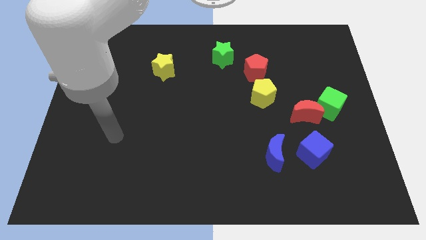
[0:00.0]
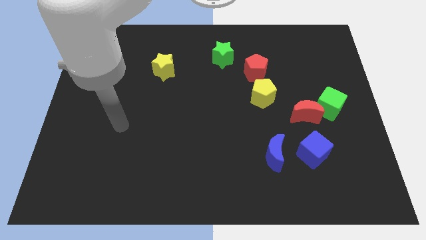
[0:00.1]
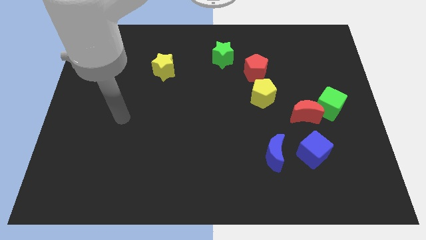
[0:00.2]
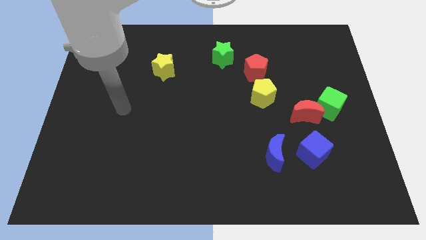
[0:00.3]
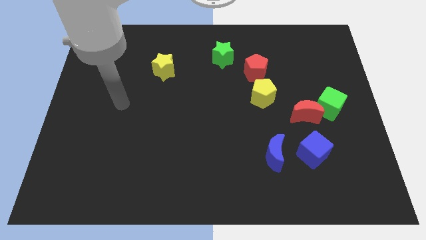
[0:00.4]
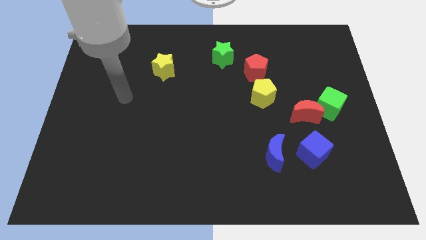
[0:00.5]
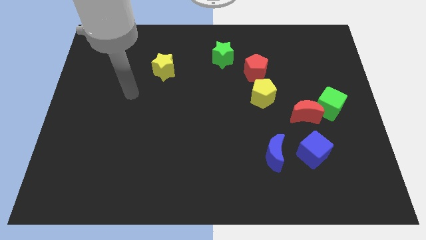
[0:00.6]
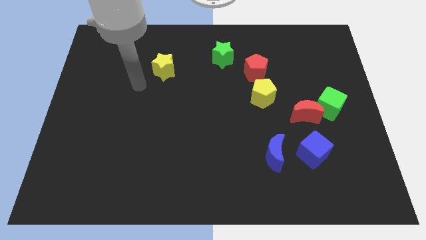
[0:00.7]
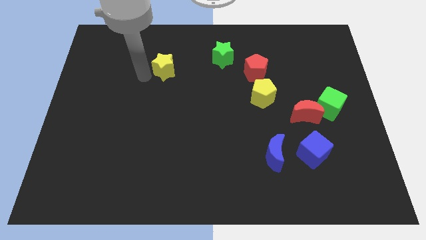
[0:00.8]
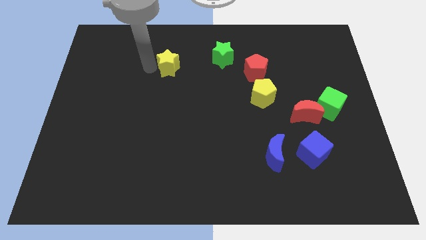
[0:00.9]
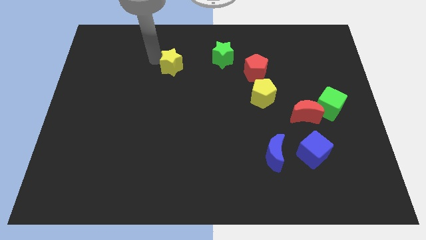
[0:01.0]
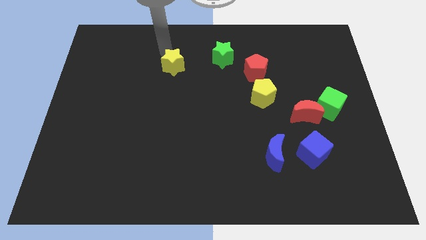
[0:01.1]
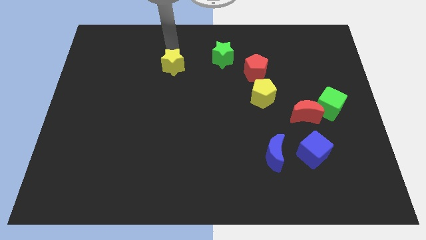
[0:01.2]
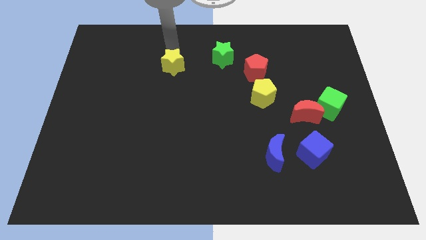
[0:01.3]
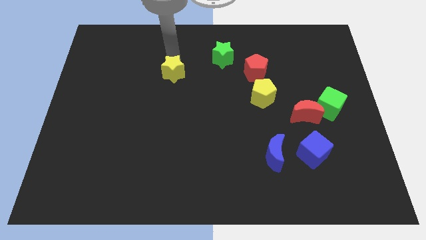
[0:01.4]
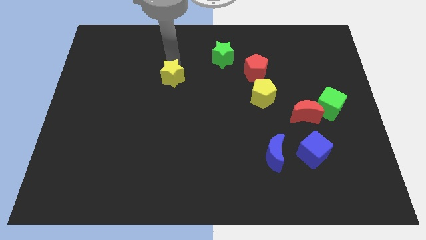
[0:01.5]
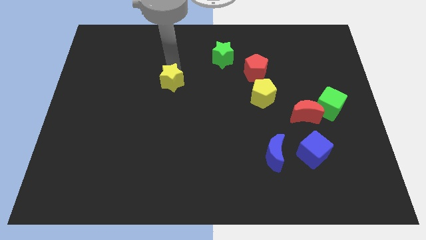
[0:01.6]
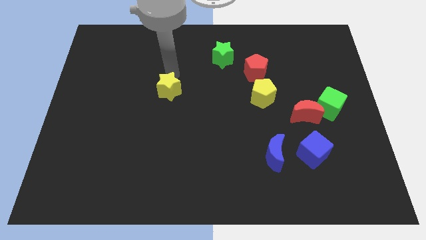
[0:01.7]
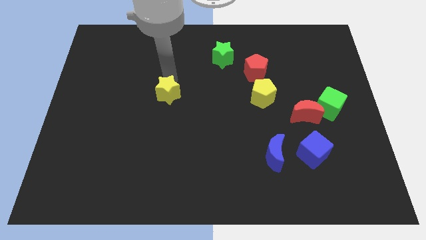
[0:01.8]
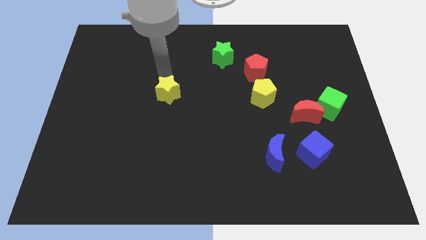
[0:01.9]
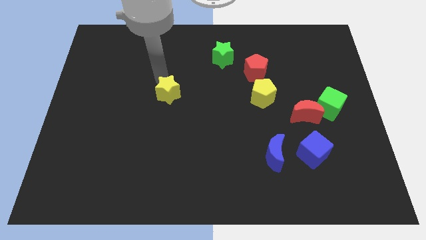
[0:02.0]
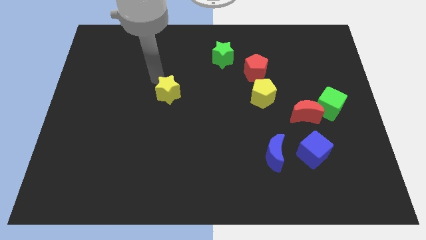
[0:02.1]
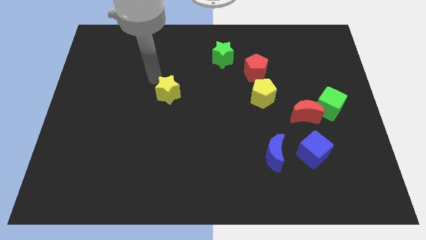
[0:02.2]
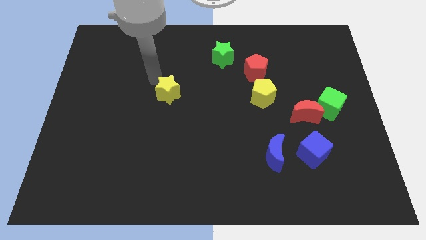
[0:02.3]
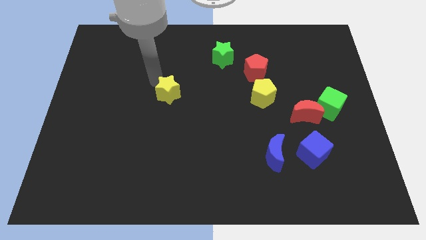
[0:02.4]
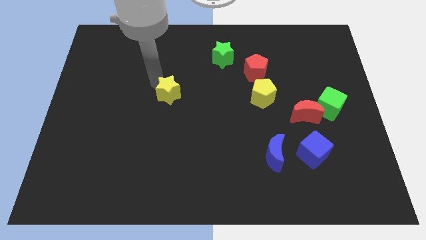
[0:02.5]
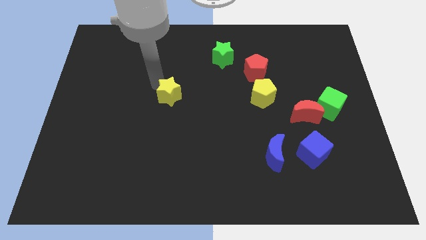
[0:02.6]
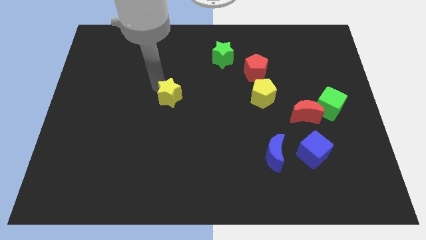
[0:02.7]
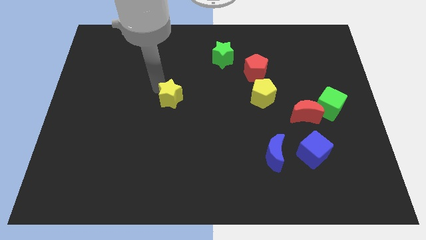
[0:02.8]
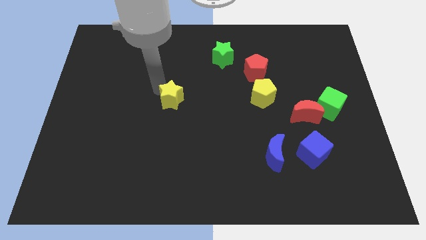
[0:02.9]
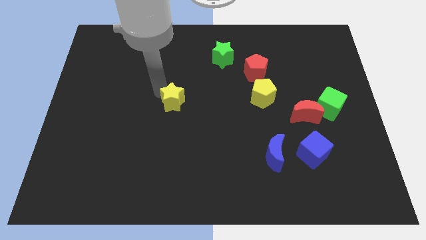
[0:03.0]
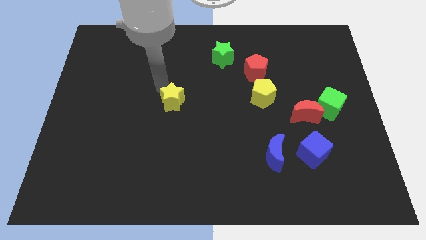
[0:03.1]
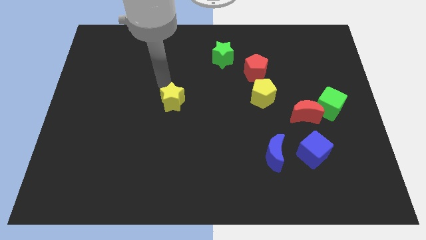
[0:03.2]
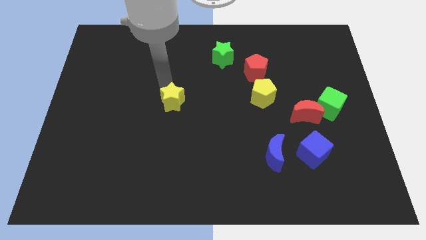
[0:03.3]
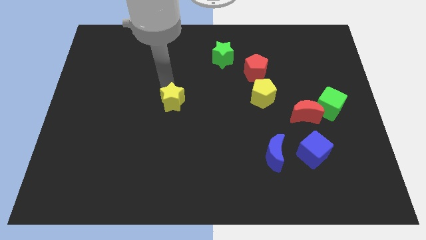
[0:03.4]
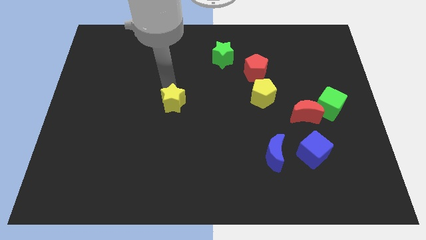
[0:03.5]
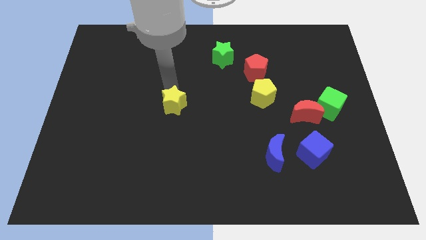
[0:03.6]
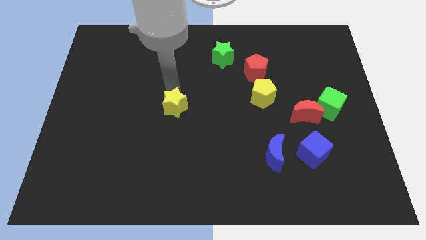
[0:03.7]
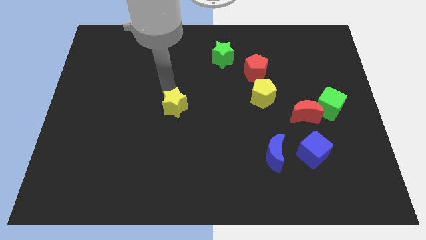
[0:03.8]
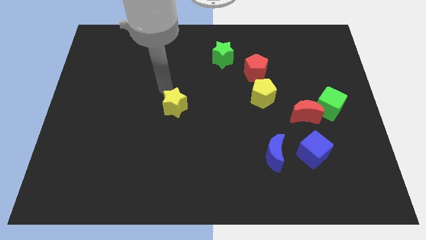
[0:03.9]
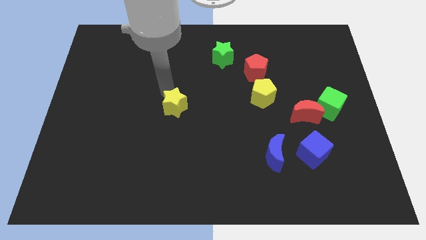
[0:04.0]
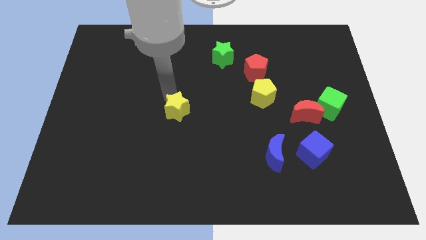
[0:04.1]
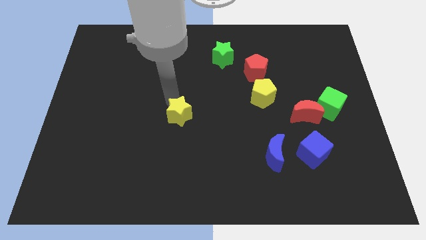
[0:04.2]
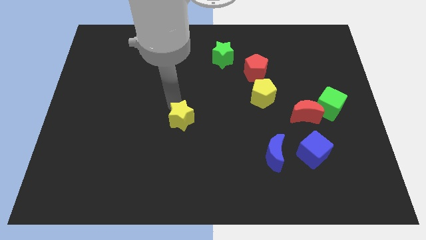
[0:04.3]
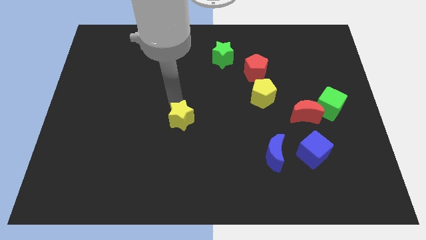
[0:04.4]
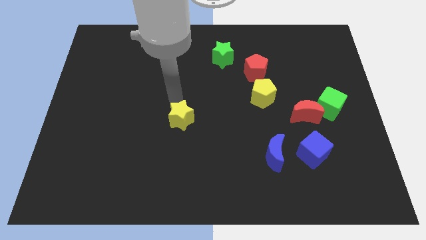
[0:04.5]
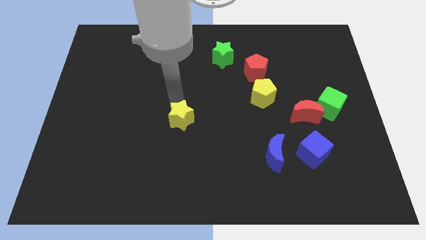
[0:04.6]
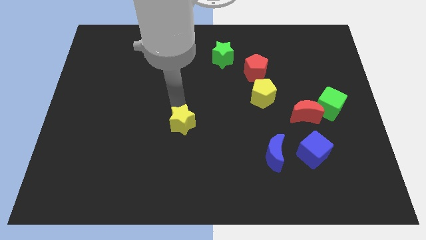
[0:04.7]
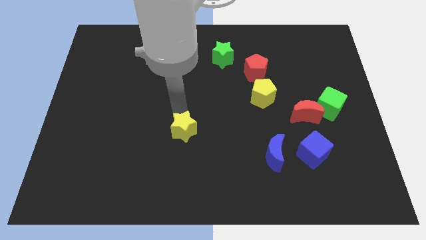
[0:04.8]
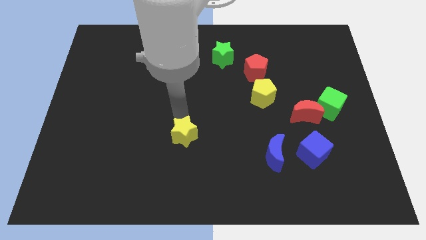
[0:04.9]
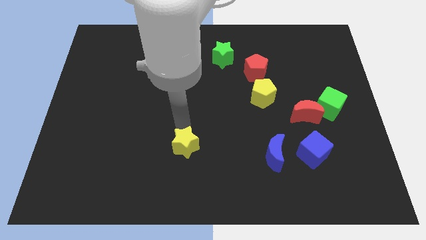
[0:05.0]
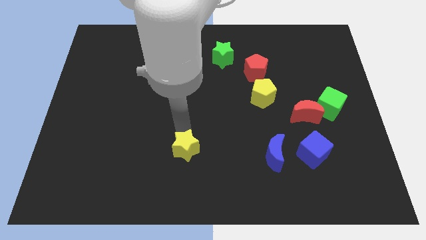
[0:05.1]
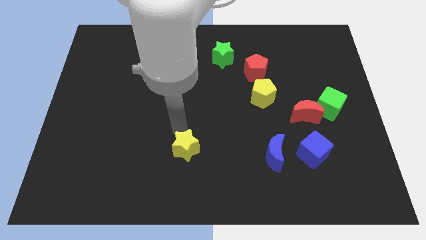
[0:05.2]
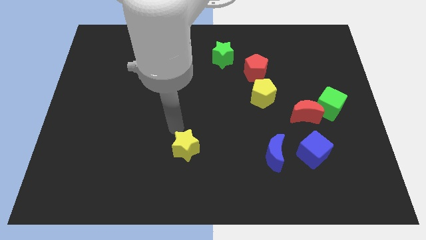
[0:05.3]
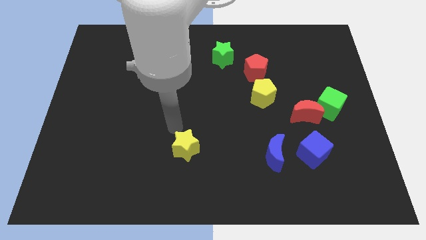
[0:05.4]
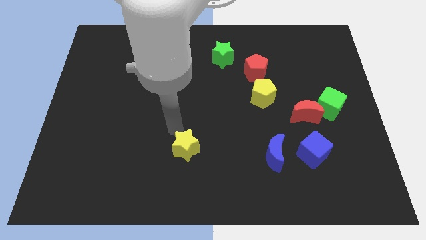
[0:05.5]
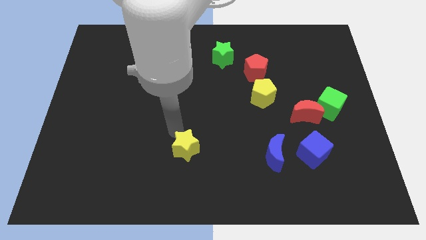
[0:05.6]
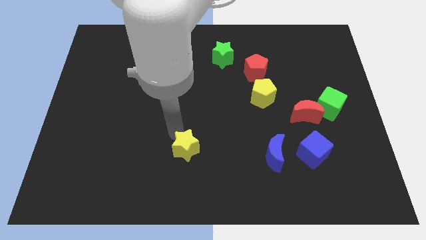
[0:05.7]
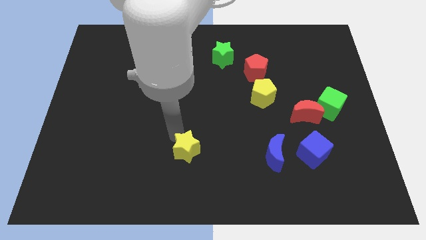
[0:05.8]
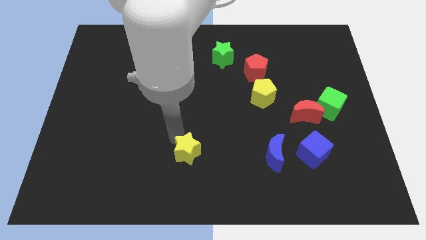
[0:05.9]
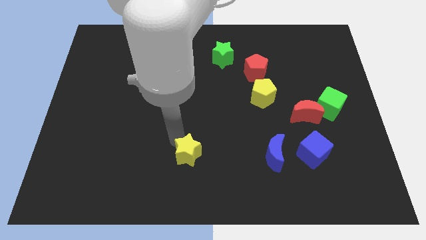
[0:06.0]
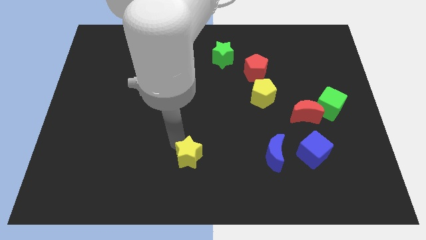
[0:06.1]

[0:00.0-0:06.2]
move the yellow star to the bottom side

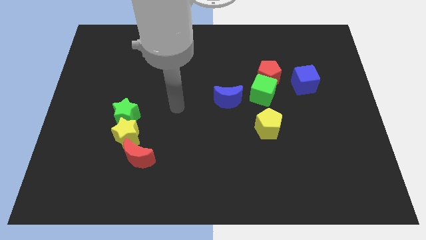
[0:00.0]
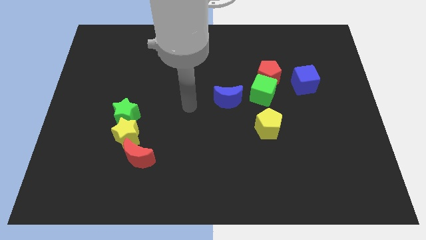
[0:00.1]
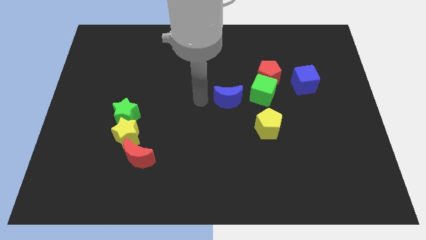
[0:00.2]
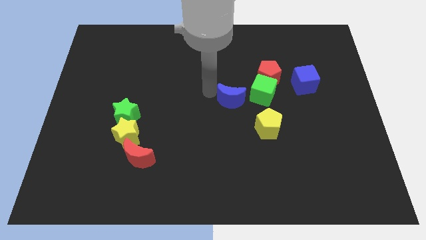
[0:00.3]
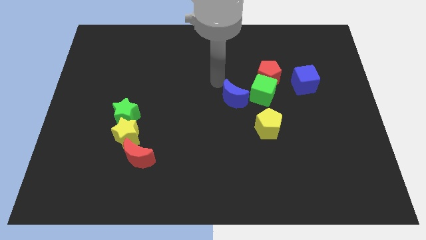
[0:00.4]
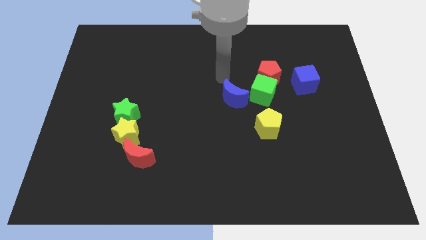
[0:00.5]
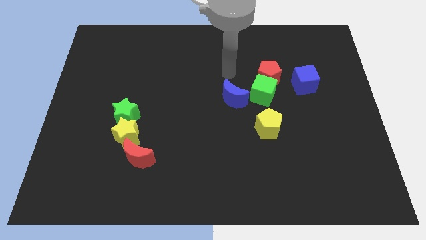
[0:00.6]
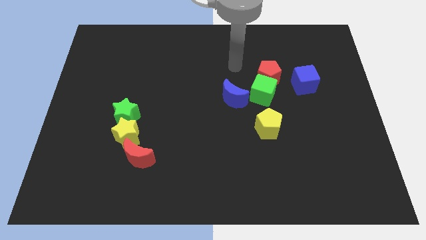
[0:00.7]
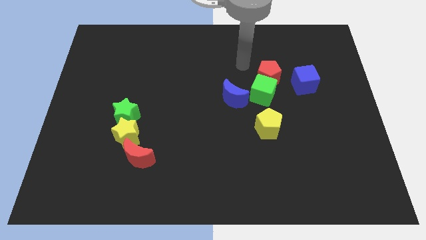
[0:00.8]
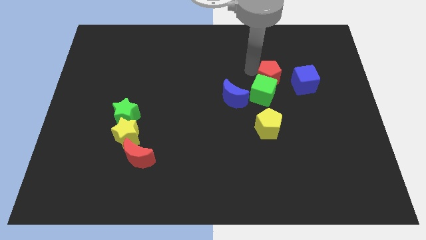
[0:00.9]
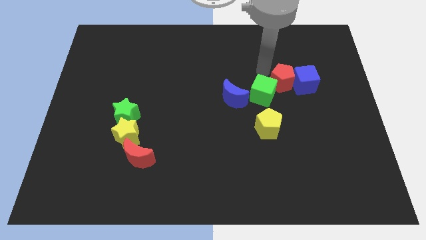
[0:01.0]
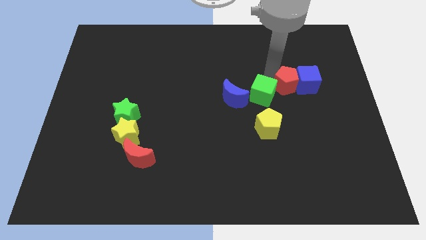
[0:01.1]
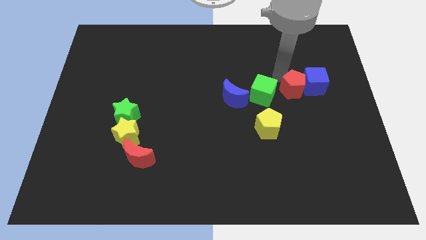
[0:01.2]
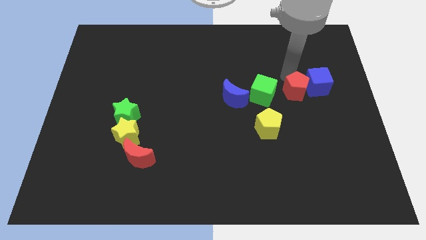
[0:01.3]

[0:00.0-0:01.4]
push the blue cube to the right side of the board
